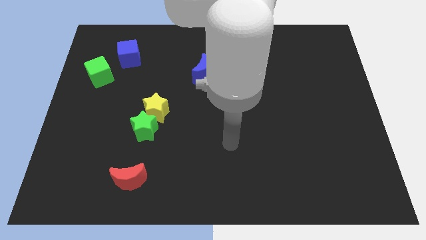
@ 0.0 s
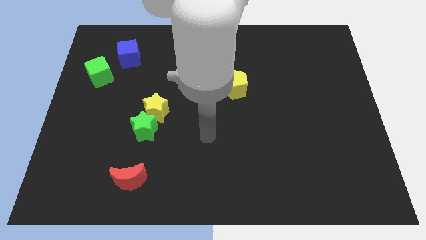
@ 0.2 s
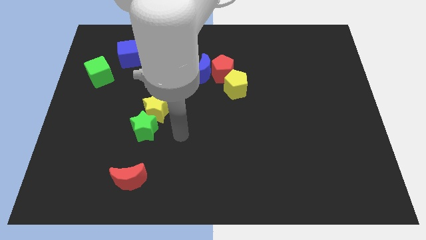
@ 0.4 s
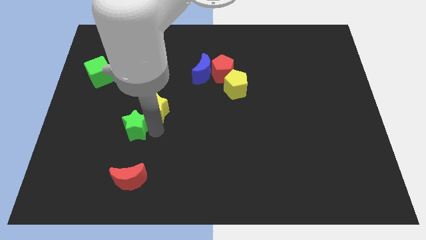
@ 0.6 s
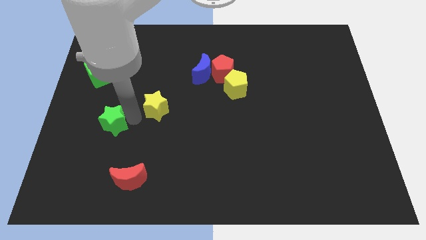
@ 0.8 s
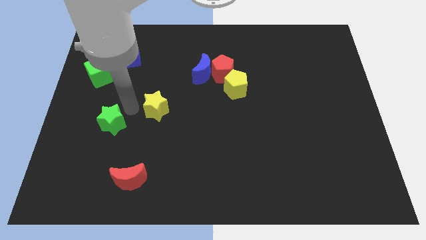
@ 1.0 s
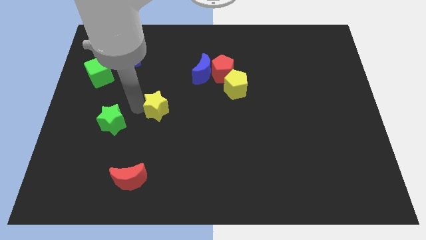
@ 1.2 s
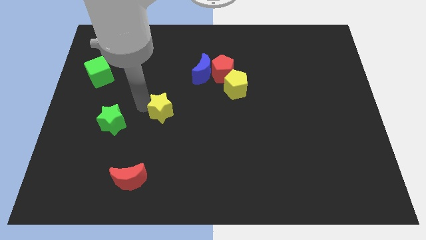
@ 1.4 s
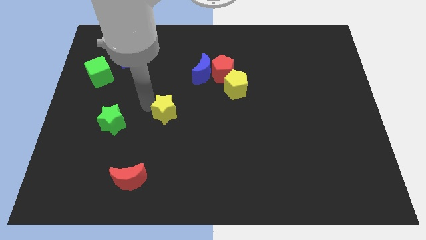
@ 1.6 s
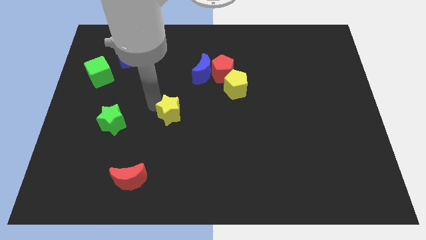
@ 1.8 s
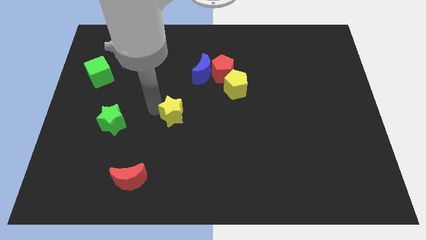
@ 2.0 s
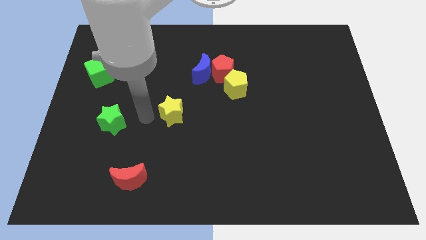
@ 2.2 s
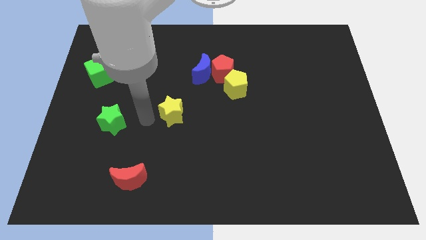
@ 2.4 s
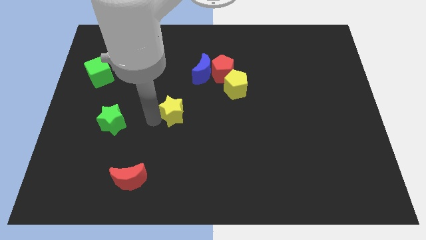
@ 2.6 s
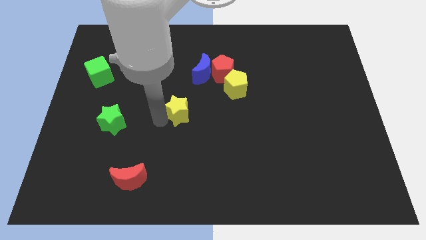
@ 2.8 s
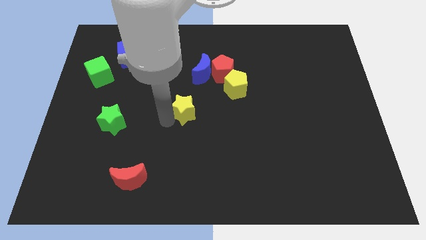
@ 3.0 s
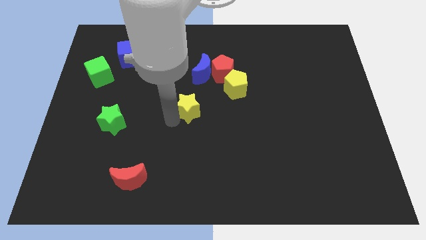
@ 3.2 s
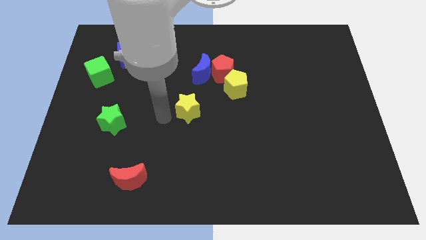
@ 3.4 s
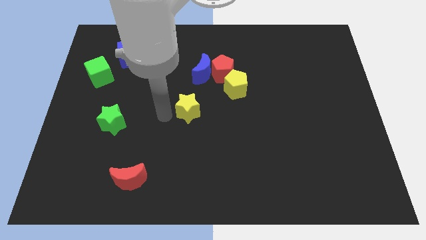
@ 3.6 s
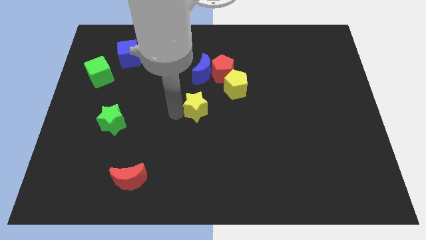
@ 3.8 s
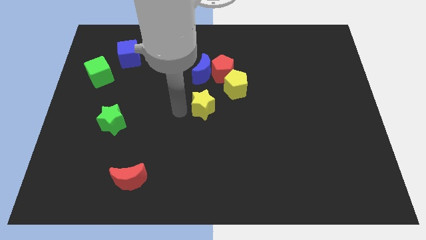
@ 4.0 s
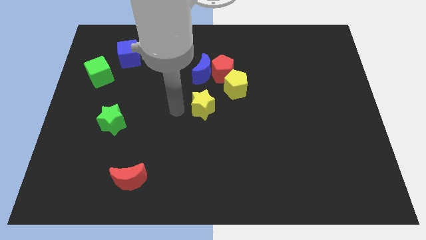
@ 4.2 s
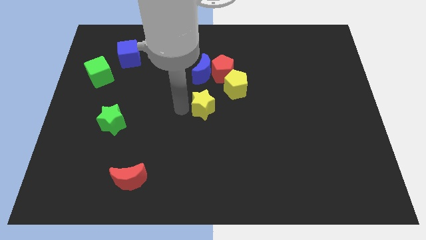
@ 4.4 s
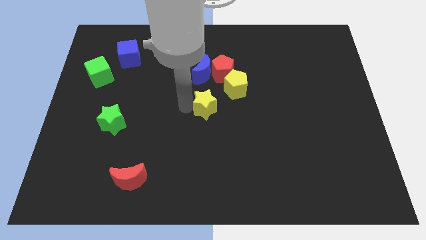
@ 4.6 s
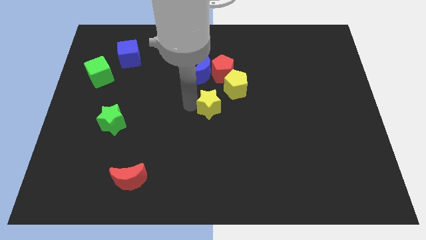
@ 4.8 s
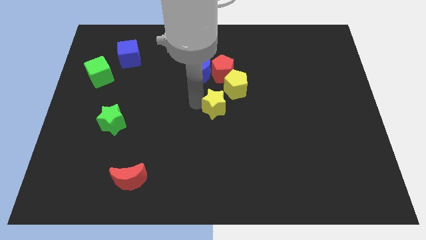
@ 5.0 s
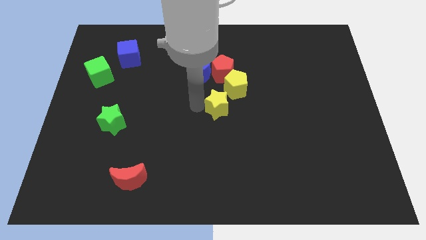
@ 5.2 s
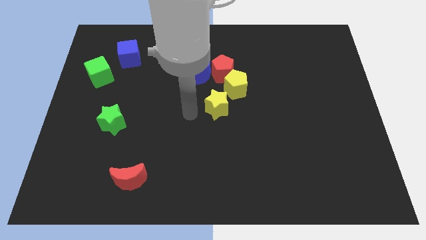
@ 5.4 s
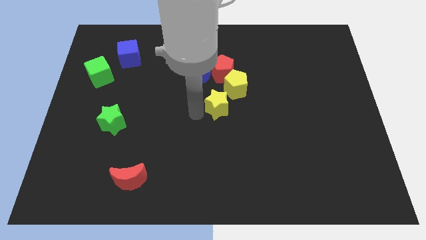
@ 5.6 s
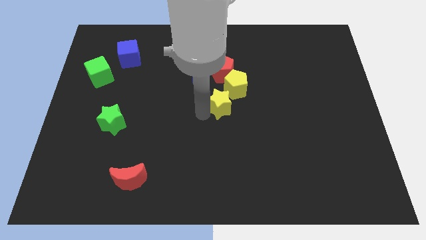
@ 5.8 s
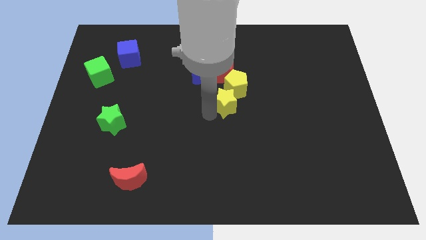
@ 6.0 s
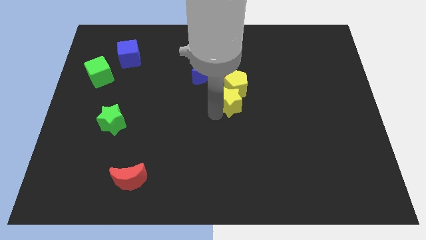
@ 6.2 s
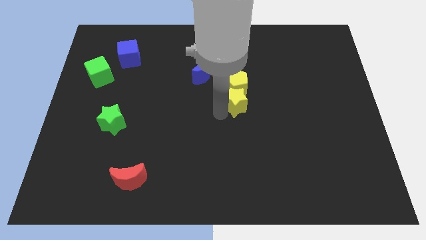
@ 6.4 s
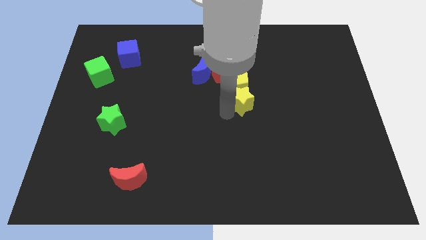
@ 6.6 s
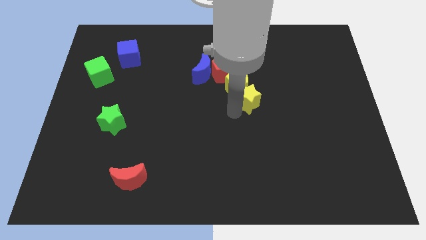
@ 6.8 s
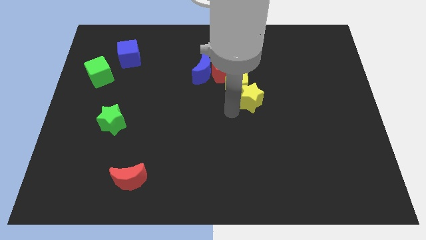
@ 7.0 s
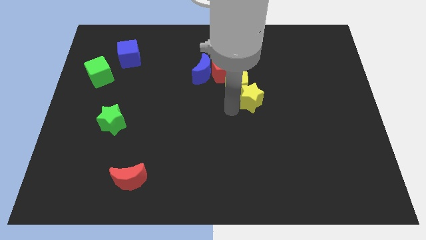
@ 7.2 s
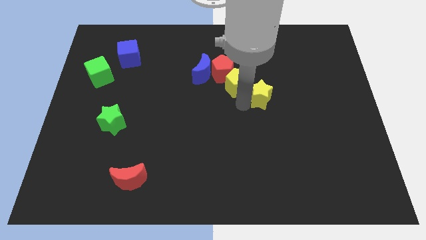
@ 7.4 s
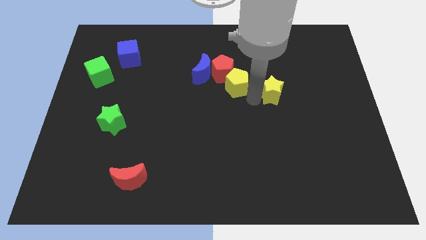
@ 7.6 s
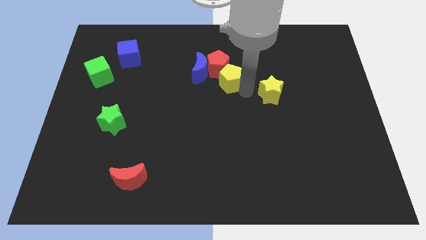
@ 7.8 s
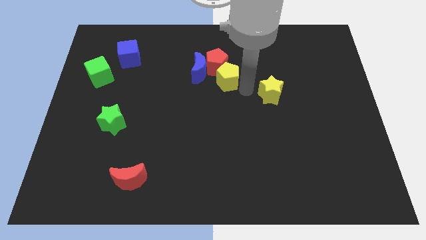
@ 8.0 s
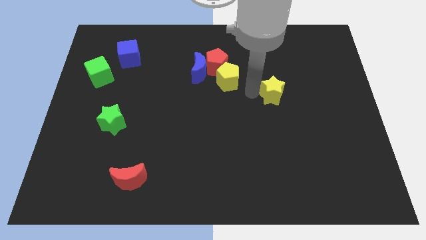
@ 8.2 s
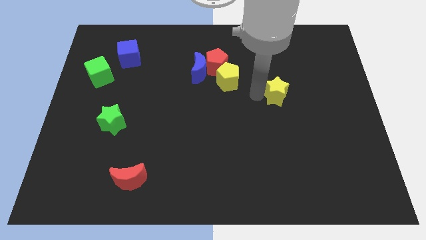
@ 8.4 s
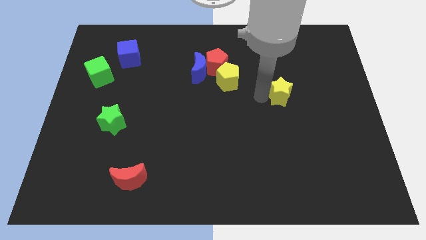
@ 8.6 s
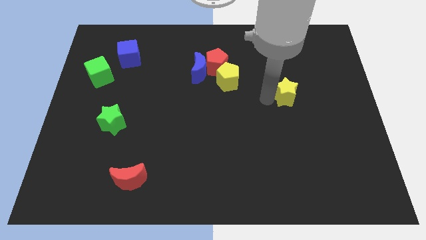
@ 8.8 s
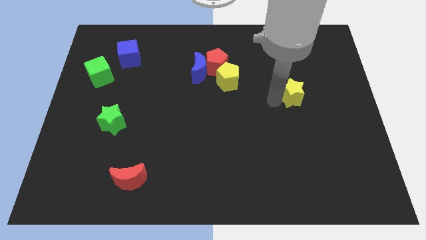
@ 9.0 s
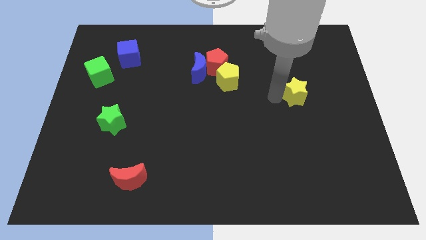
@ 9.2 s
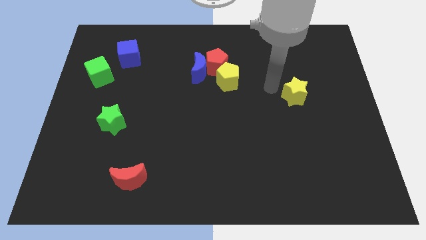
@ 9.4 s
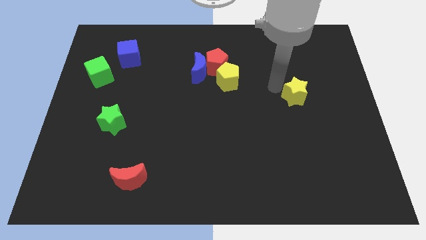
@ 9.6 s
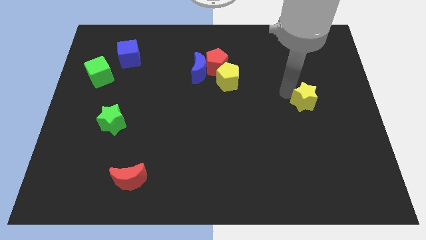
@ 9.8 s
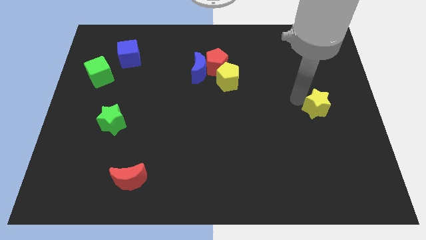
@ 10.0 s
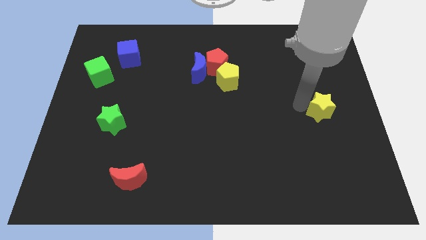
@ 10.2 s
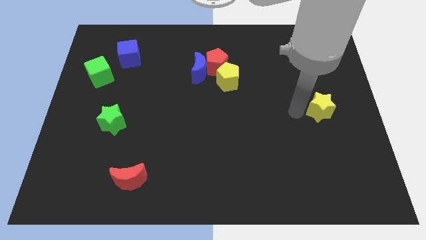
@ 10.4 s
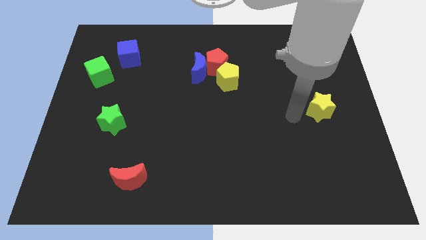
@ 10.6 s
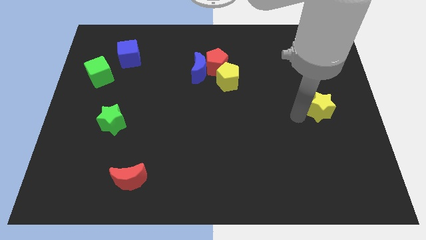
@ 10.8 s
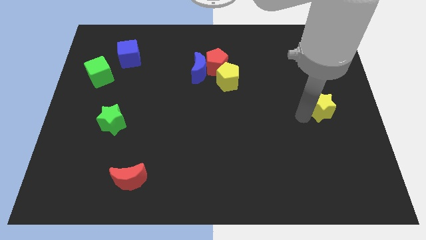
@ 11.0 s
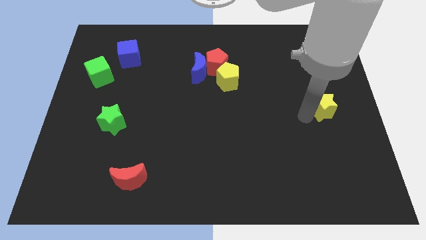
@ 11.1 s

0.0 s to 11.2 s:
put the yellow star to the right side of the board
